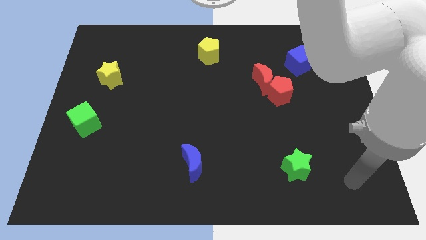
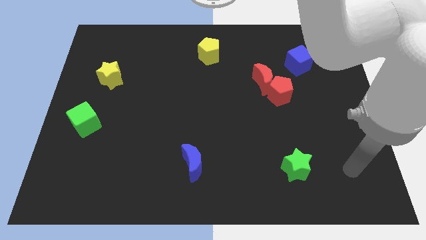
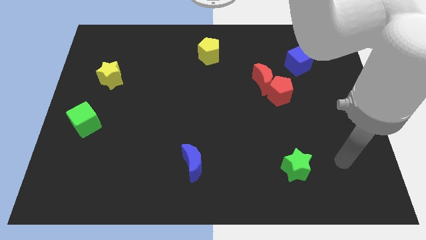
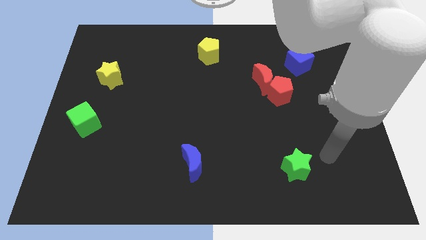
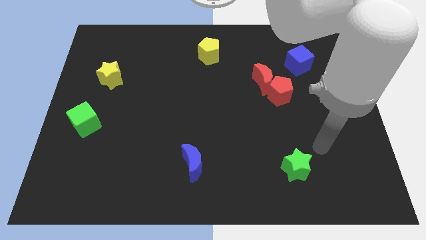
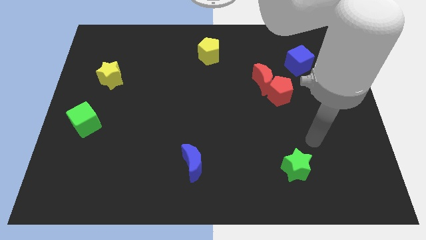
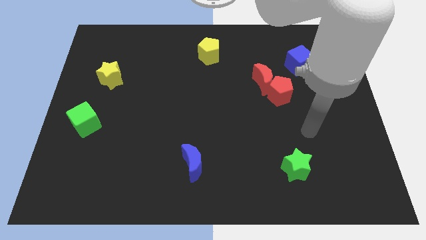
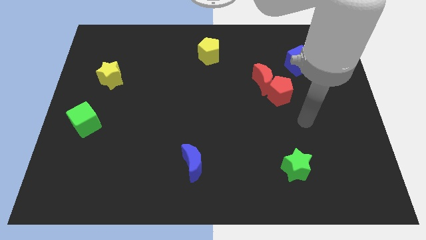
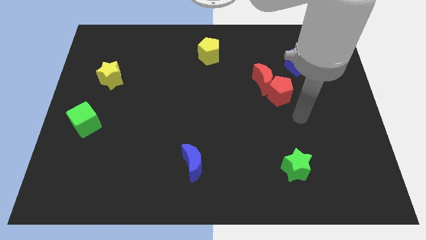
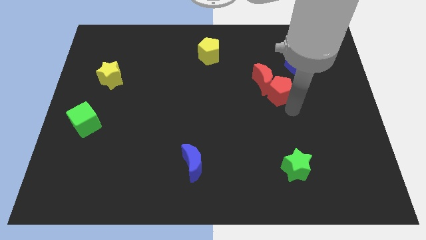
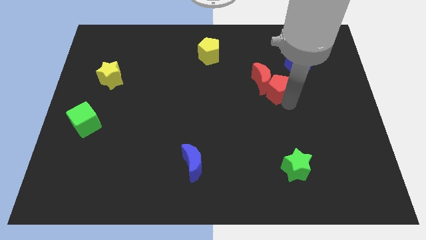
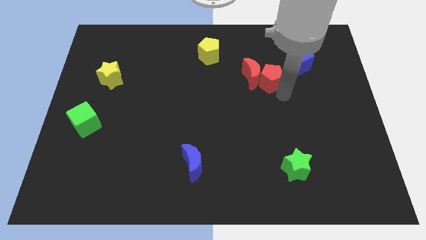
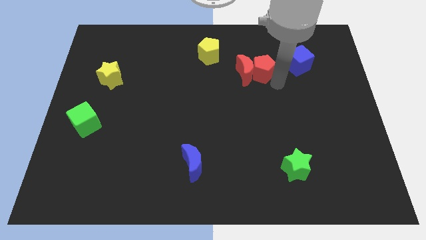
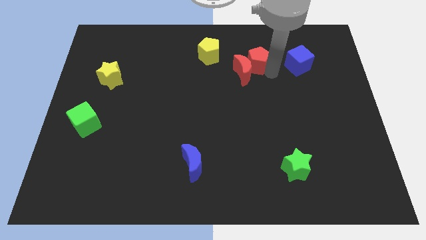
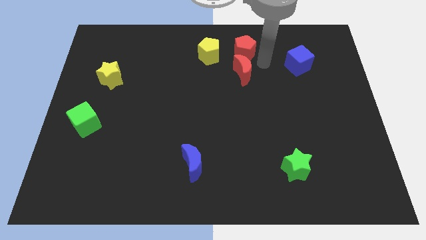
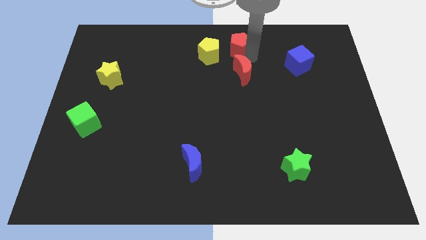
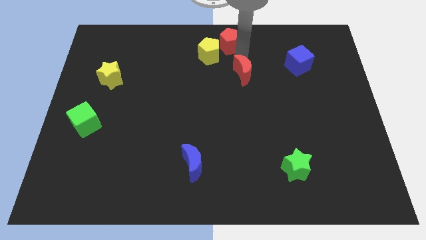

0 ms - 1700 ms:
separate the red moon from the red pentagon

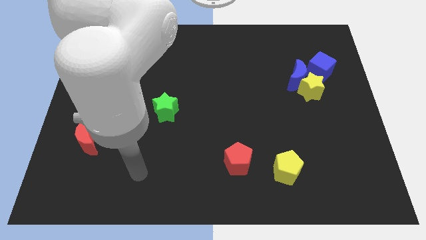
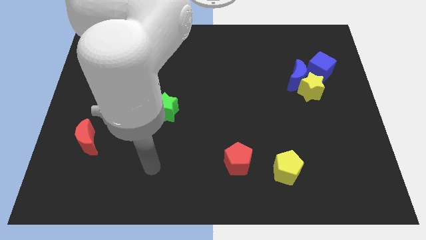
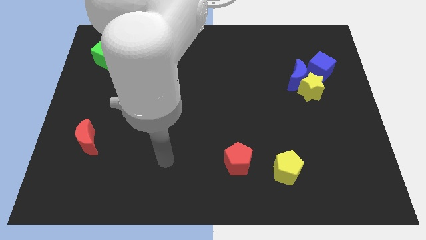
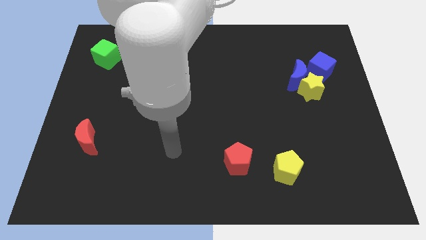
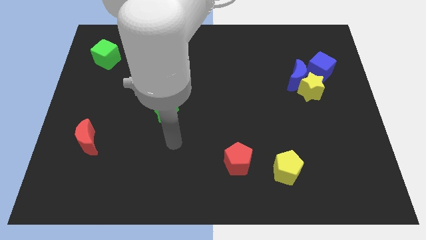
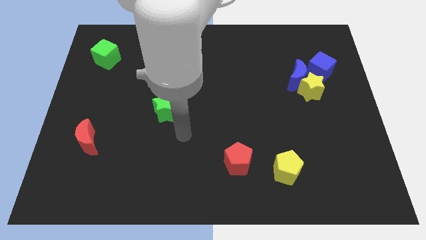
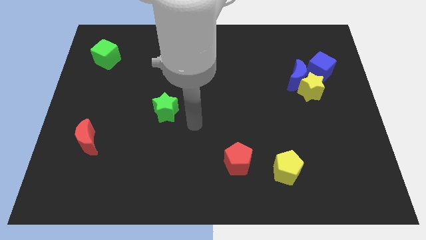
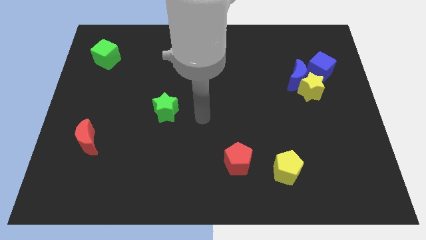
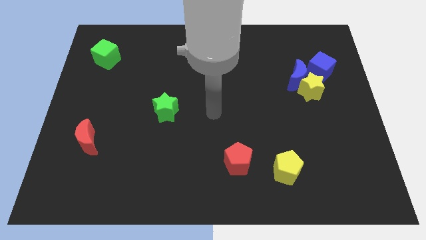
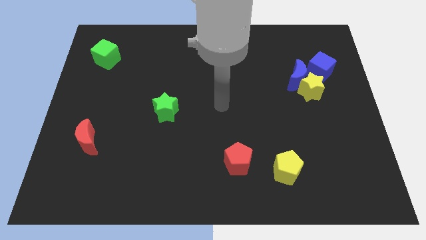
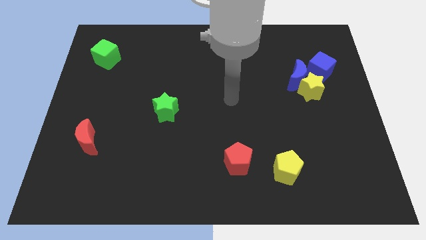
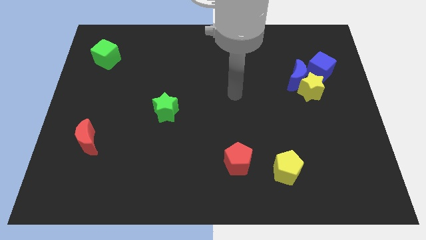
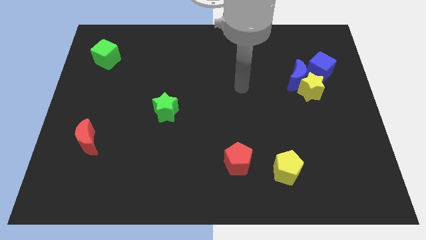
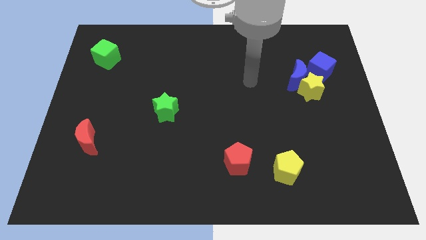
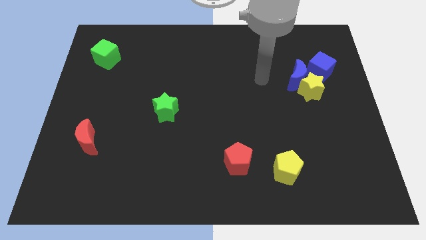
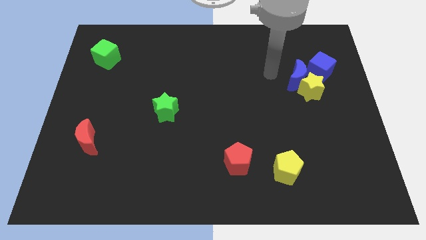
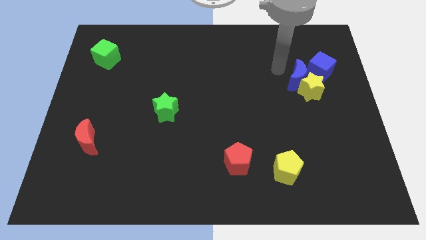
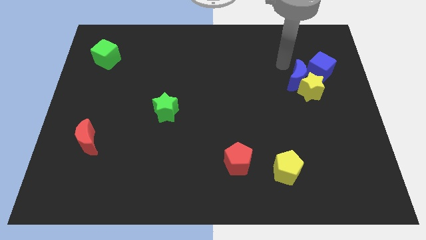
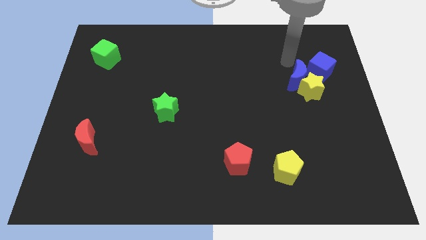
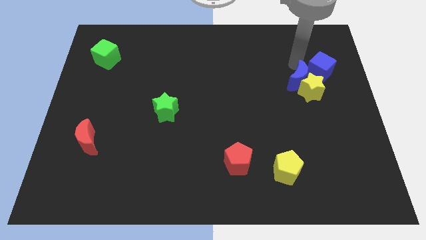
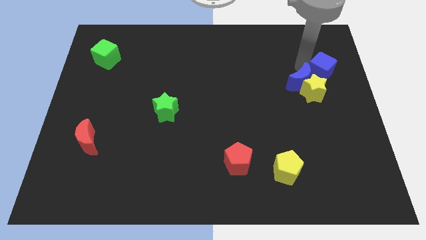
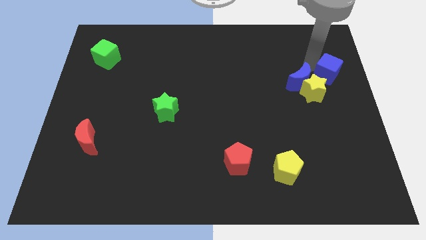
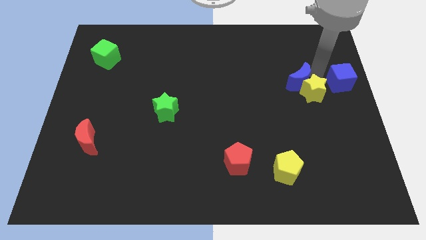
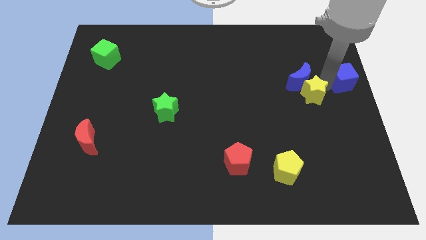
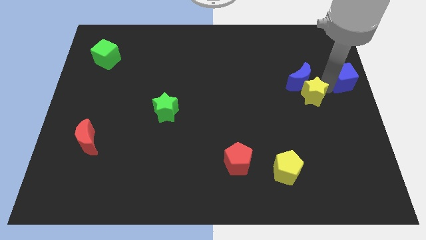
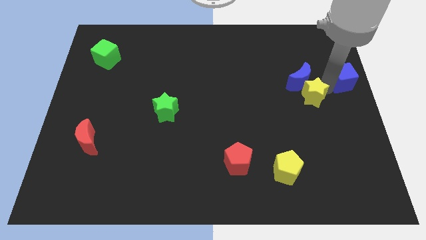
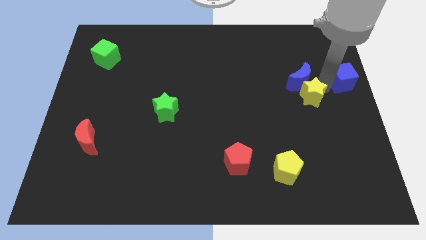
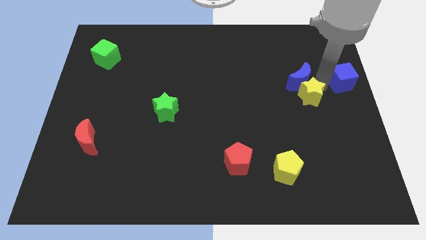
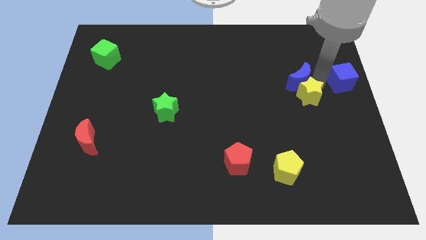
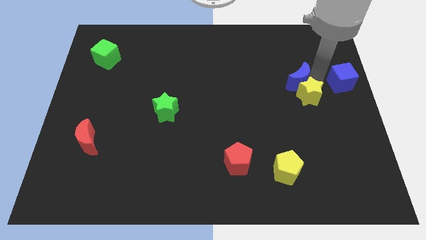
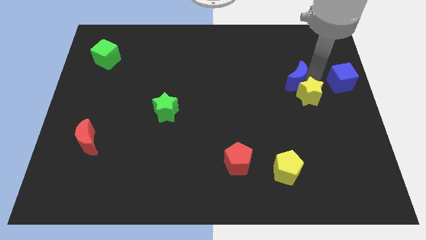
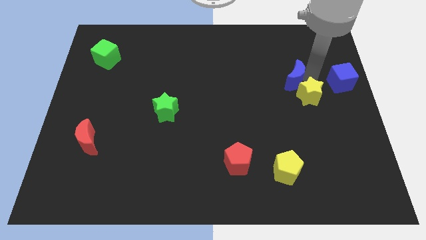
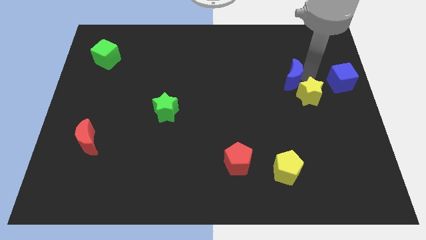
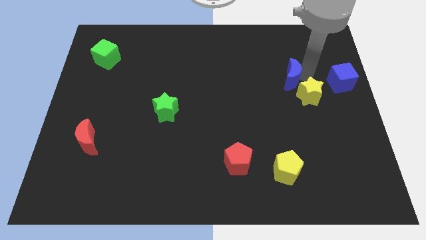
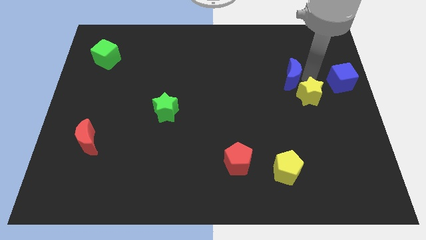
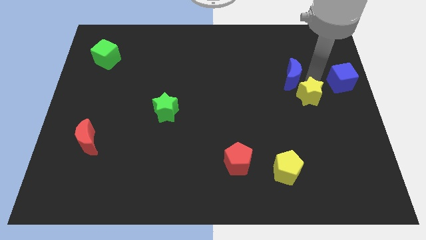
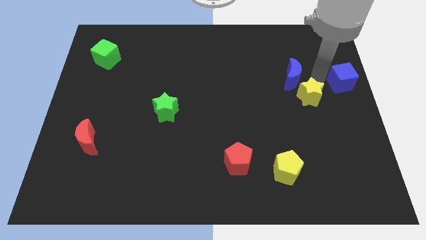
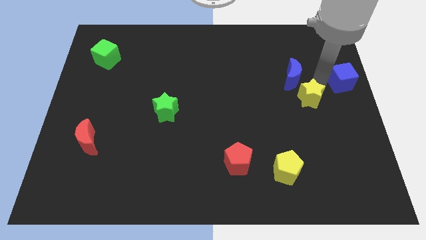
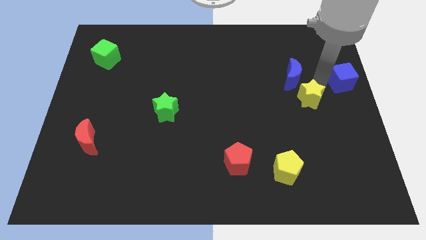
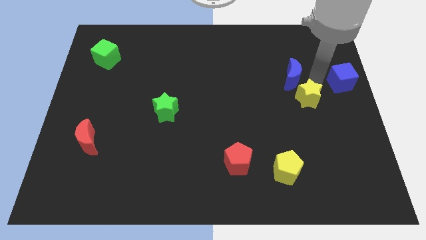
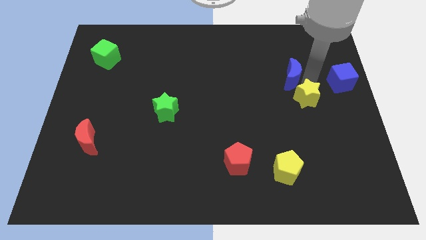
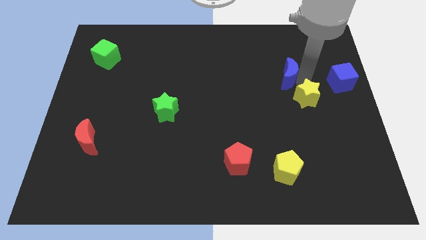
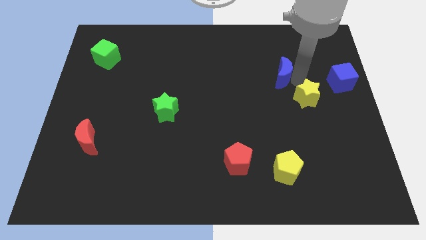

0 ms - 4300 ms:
move the blue moon away from the yellow star and blue cube

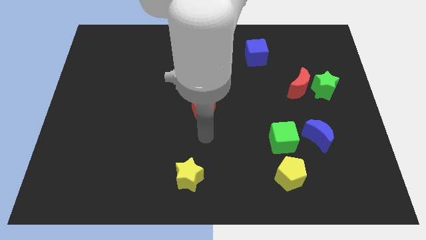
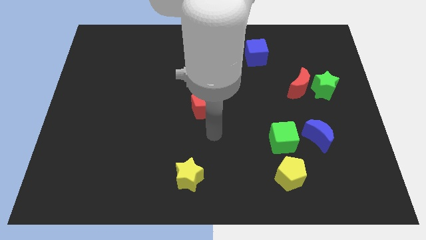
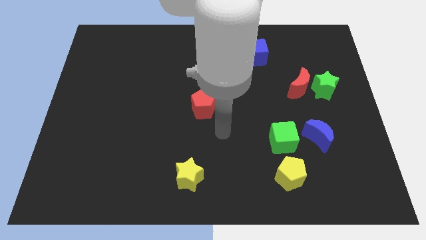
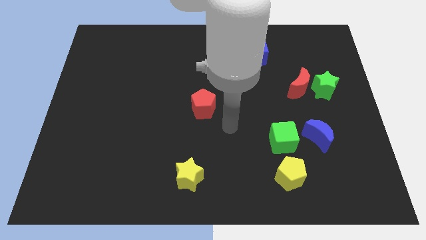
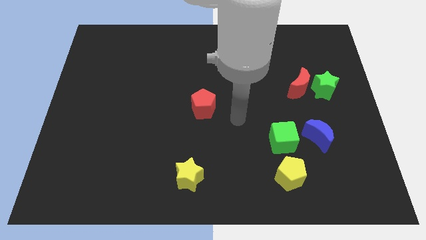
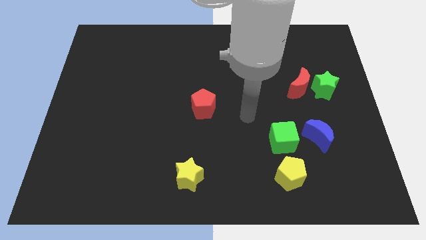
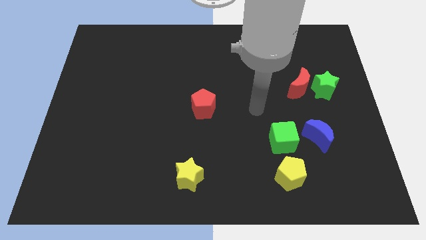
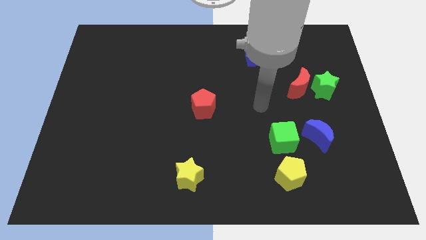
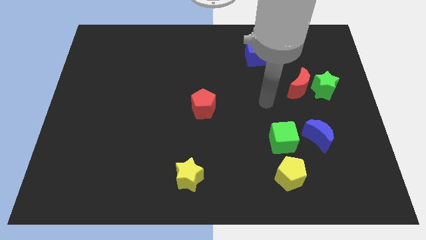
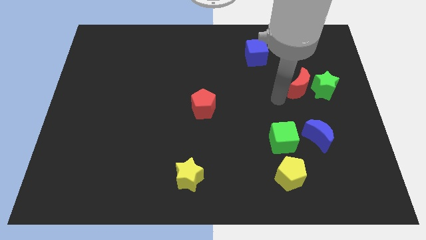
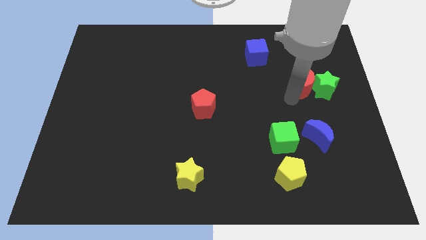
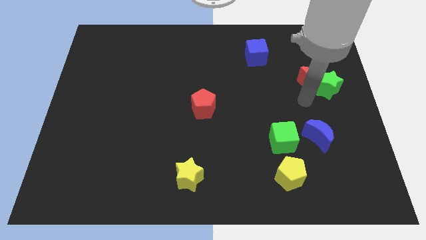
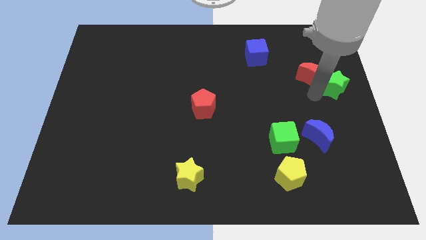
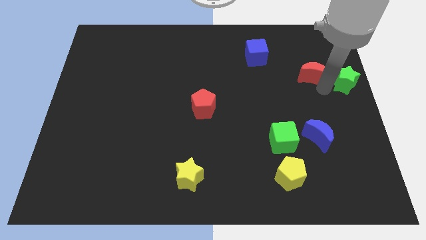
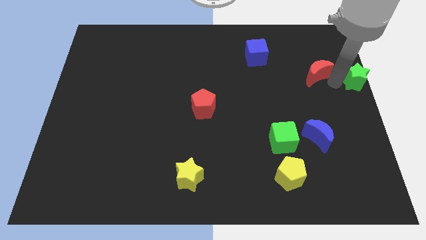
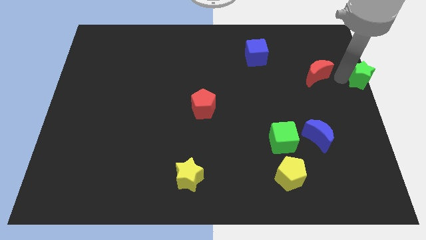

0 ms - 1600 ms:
pull the red moon apart from the green star

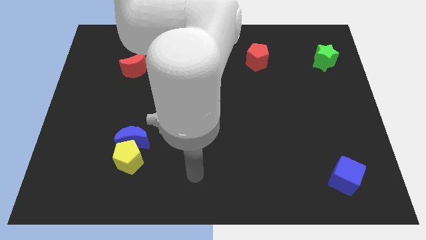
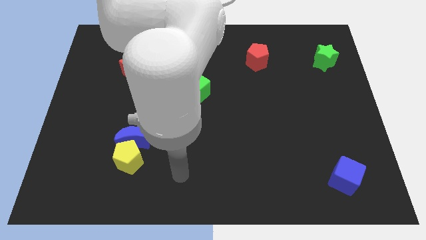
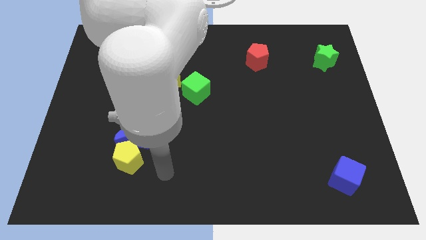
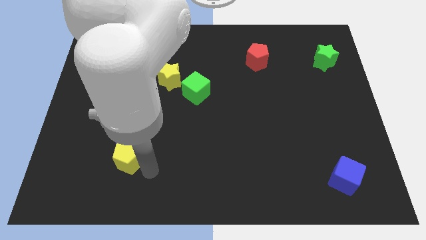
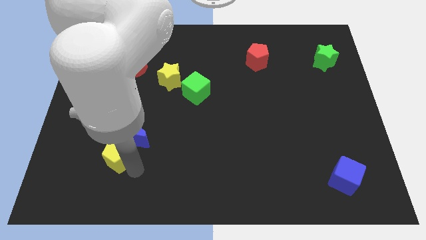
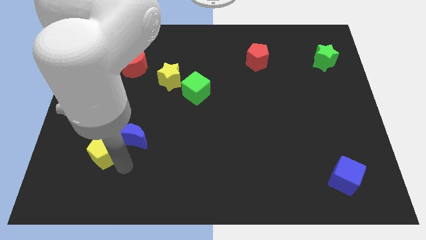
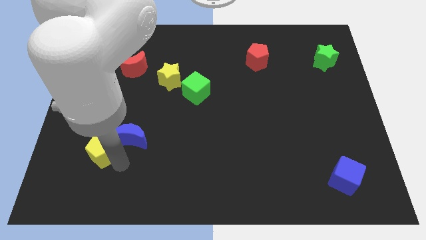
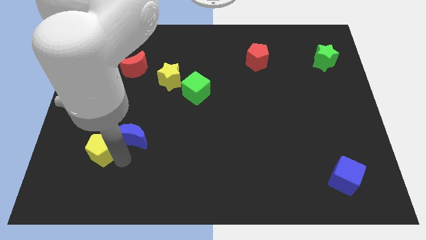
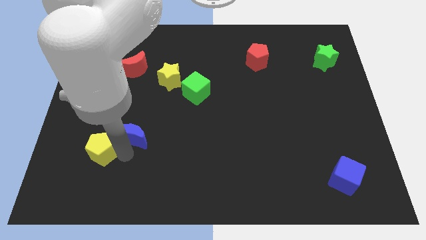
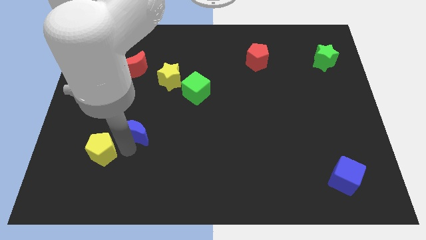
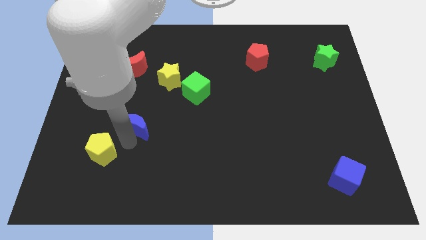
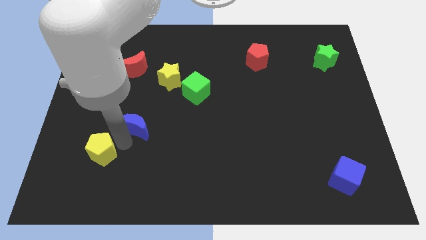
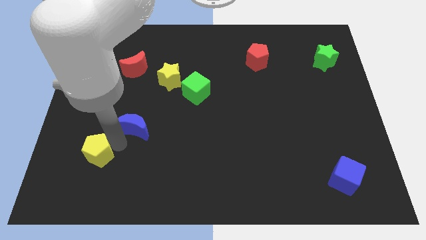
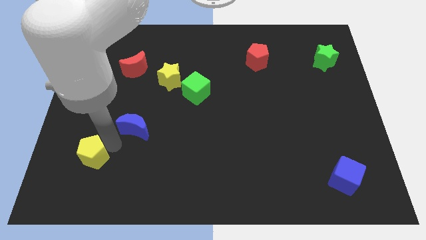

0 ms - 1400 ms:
pull the blue moon apart from the yellow pentagon

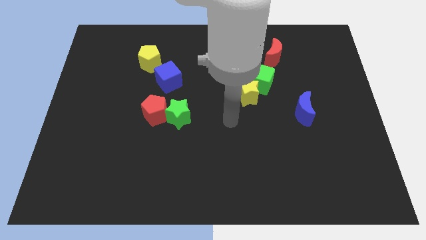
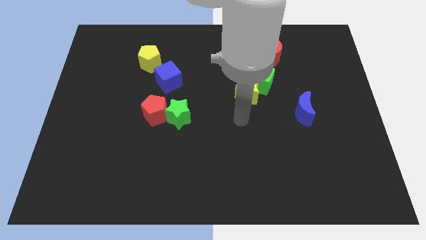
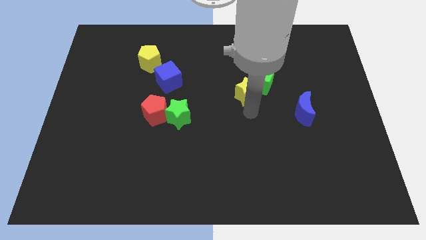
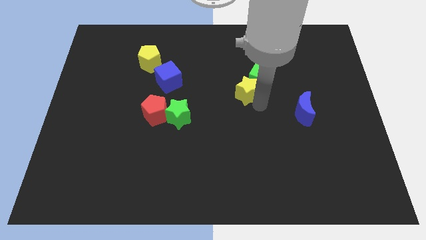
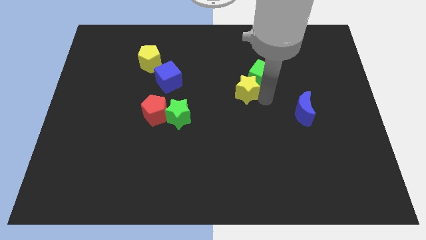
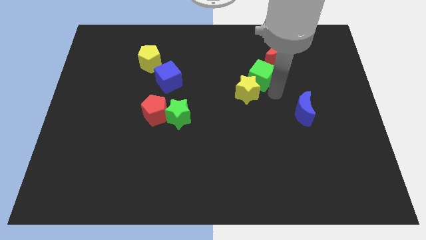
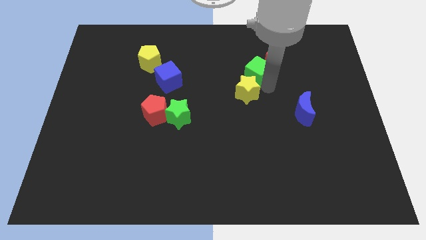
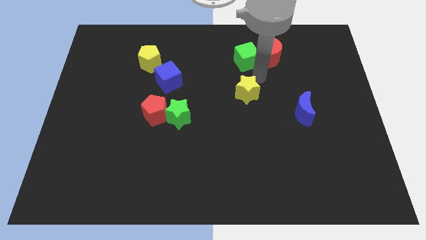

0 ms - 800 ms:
move the yellow star away from the green cube
